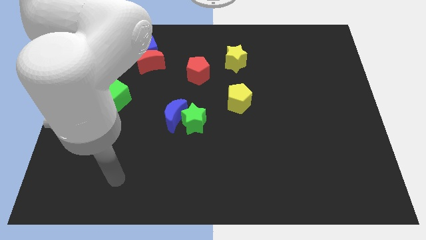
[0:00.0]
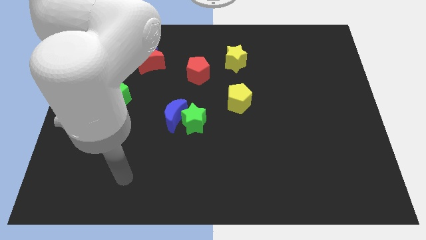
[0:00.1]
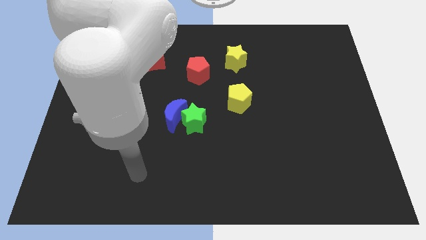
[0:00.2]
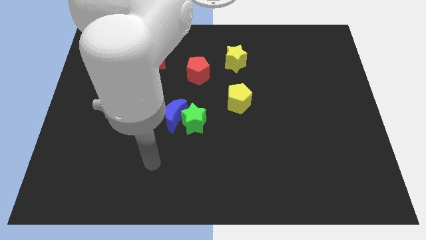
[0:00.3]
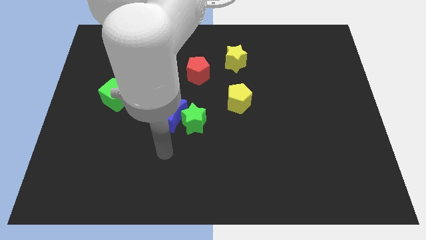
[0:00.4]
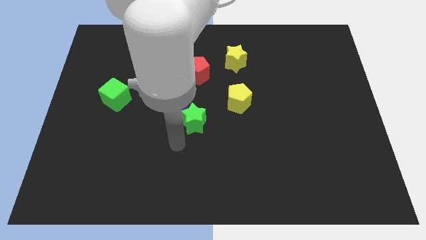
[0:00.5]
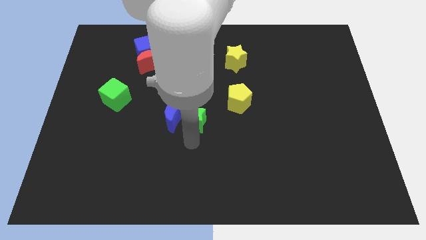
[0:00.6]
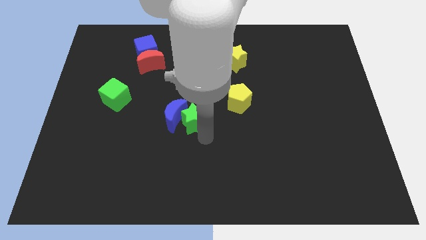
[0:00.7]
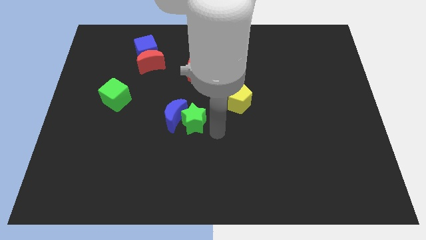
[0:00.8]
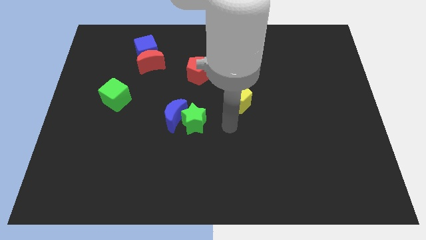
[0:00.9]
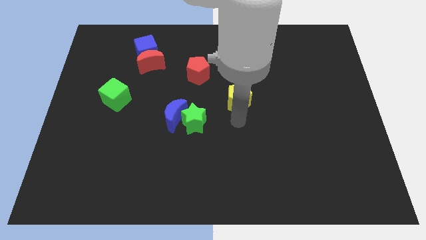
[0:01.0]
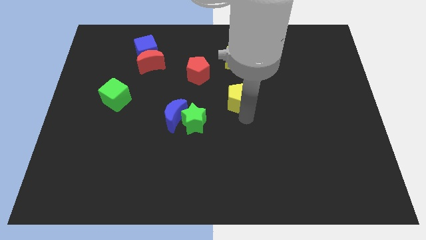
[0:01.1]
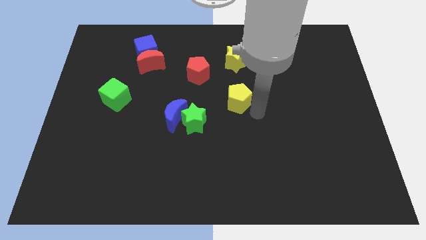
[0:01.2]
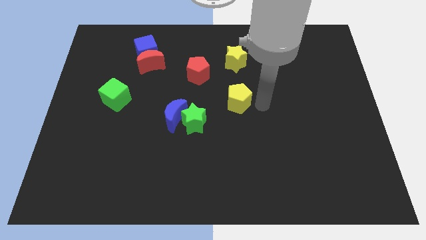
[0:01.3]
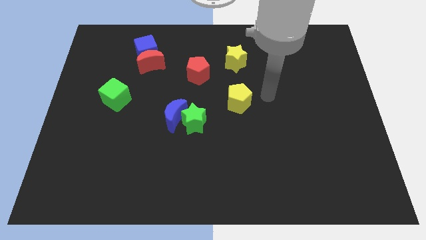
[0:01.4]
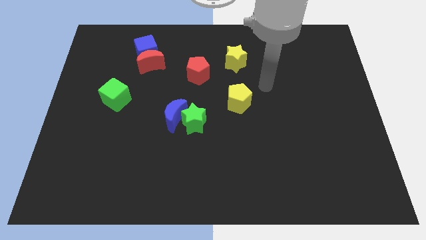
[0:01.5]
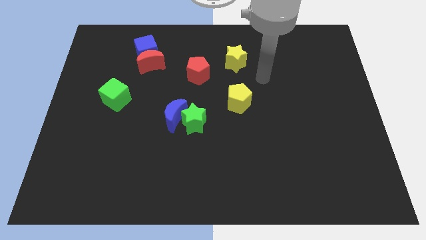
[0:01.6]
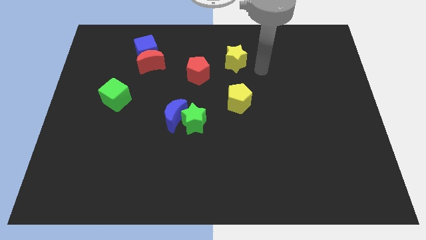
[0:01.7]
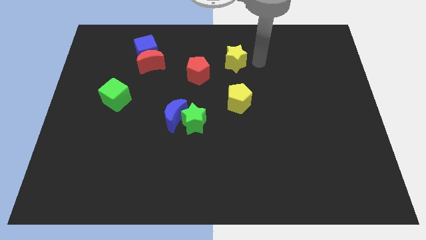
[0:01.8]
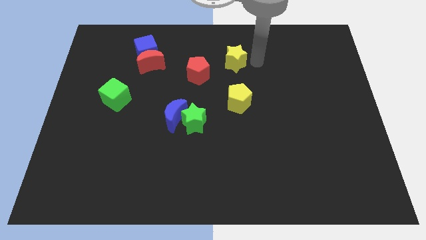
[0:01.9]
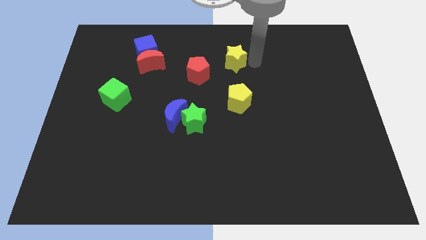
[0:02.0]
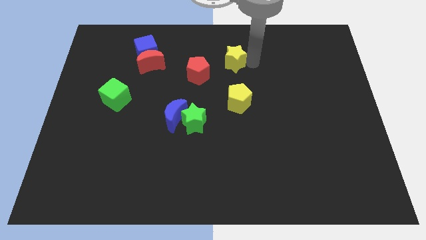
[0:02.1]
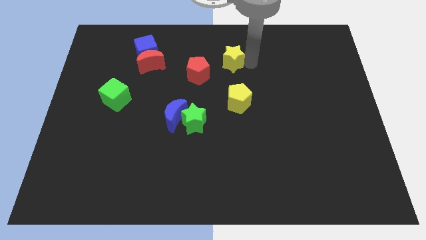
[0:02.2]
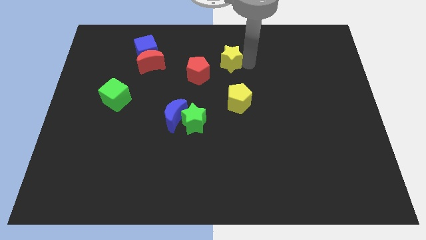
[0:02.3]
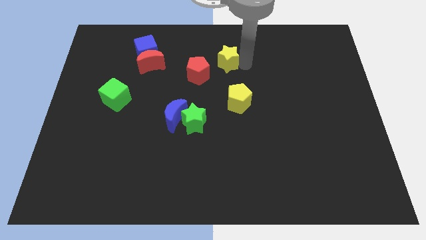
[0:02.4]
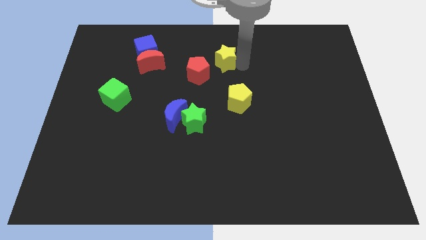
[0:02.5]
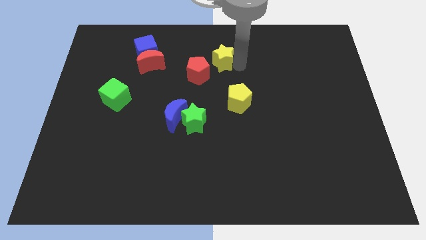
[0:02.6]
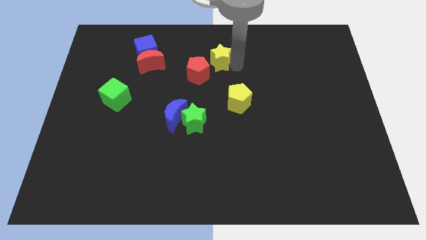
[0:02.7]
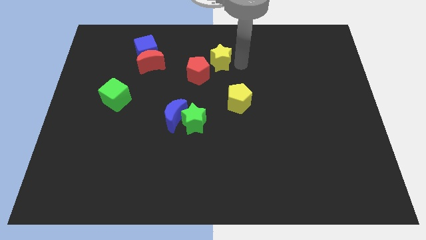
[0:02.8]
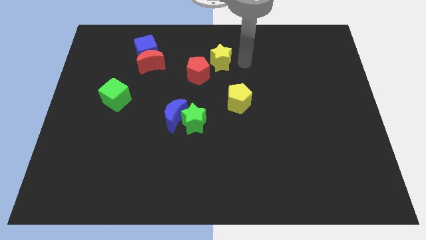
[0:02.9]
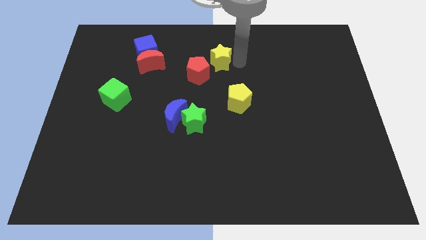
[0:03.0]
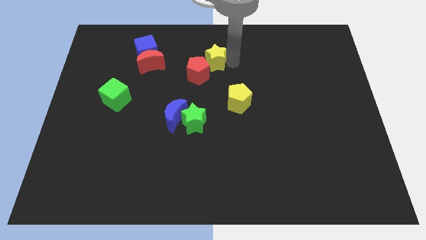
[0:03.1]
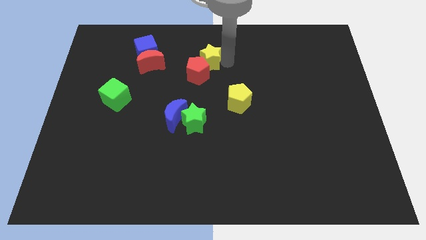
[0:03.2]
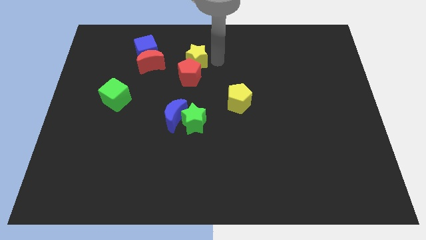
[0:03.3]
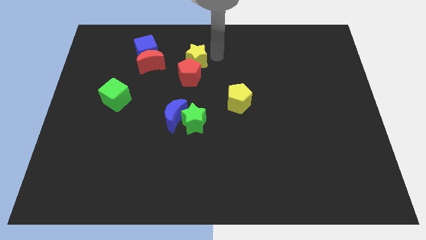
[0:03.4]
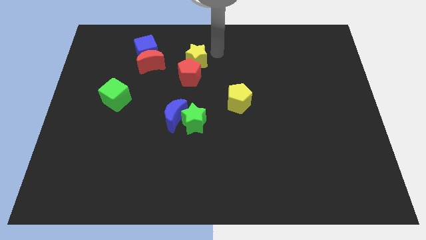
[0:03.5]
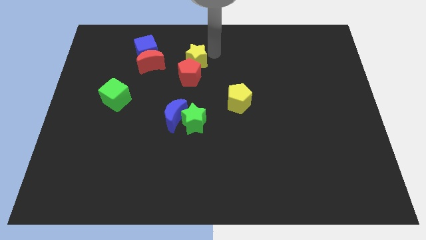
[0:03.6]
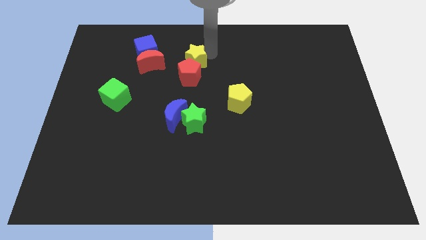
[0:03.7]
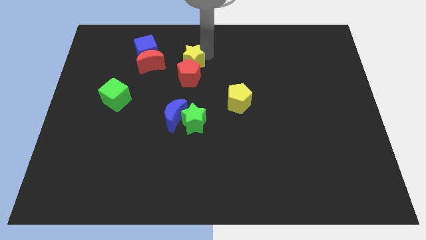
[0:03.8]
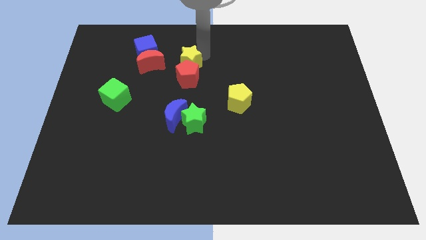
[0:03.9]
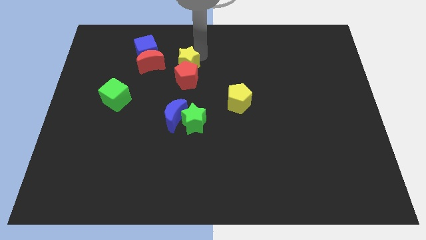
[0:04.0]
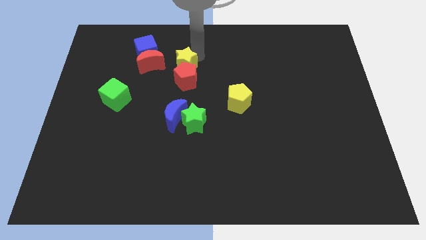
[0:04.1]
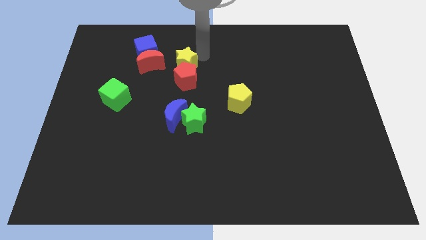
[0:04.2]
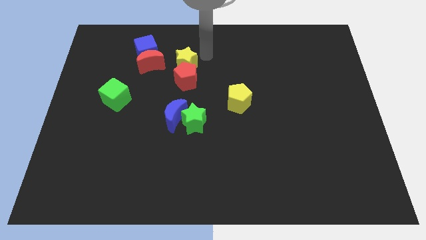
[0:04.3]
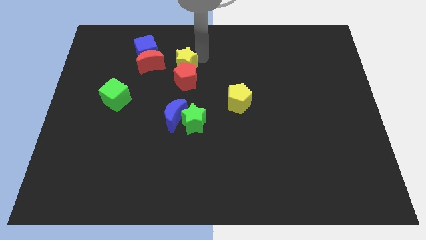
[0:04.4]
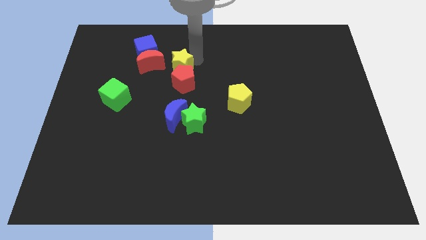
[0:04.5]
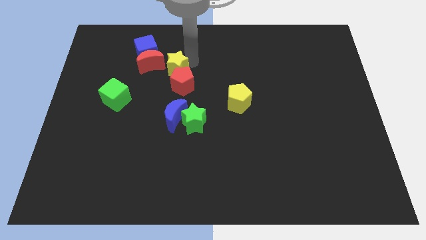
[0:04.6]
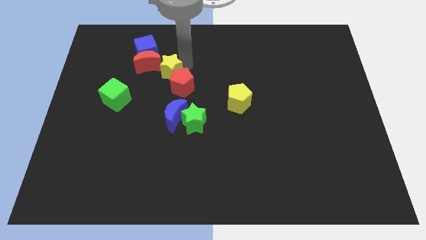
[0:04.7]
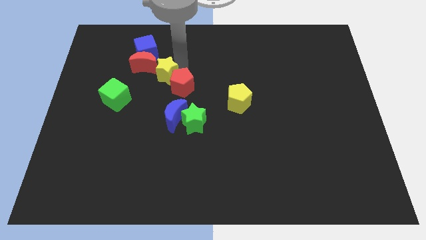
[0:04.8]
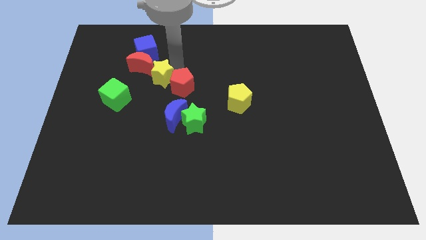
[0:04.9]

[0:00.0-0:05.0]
push the yellow star to the top right of the green cube

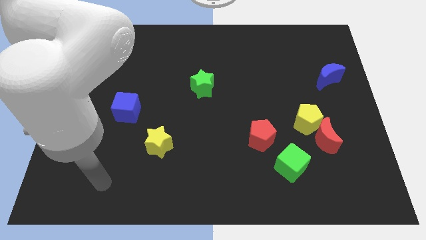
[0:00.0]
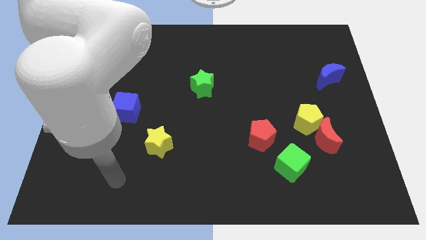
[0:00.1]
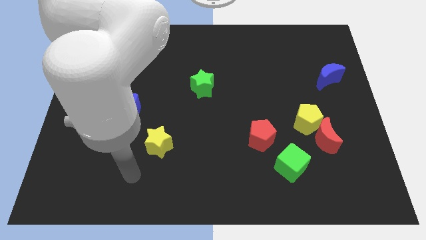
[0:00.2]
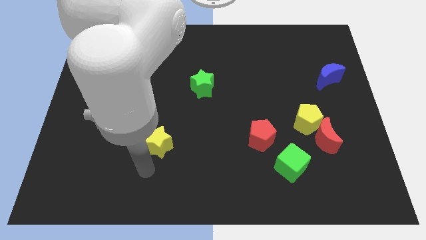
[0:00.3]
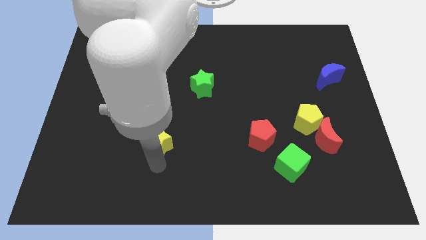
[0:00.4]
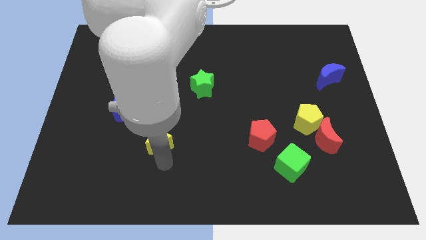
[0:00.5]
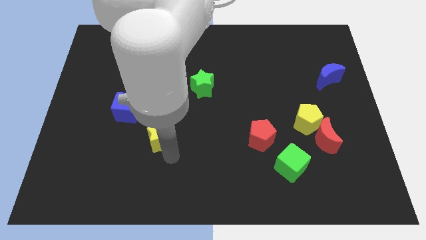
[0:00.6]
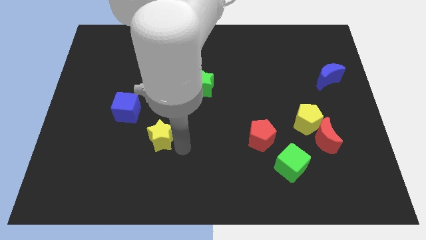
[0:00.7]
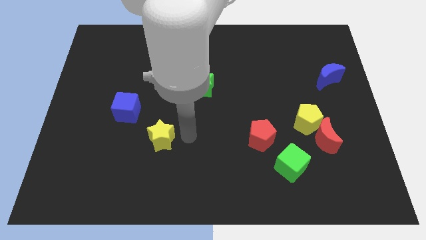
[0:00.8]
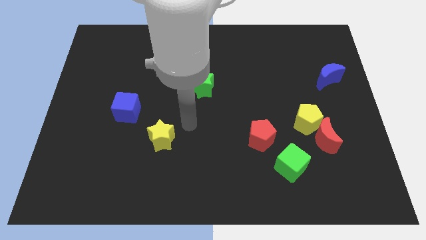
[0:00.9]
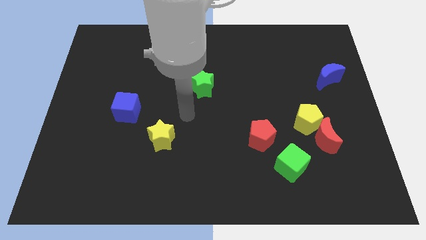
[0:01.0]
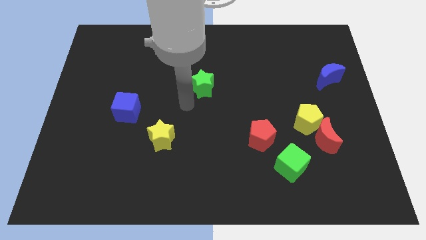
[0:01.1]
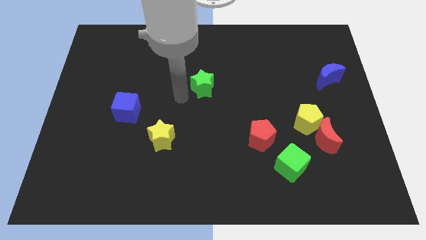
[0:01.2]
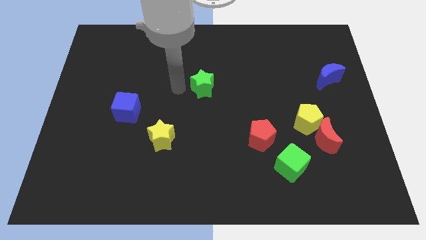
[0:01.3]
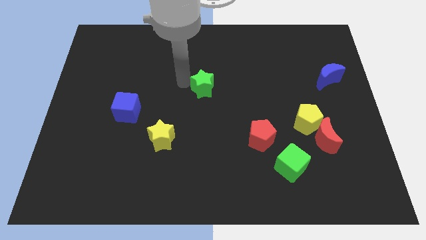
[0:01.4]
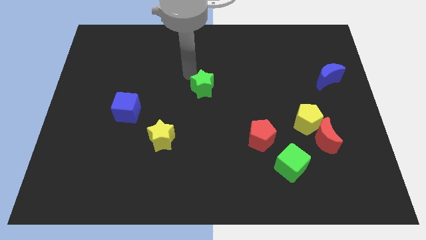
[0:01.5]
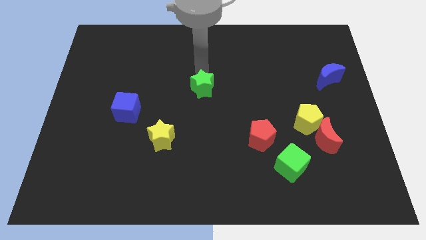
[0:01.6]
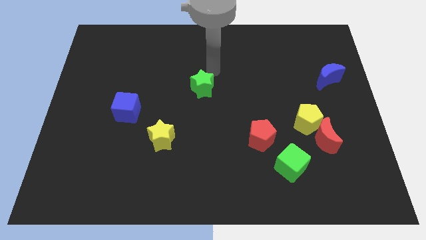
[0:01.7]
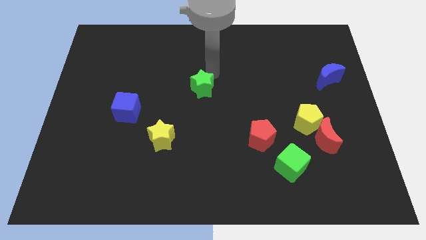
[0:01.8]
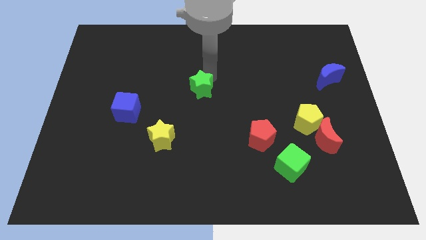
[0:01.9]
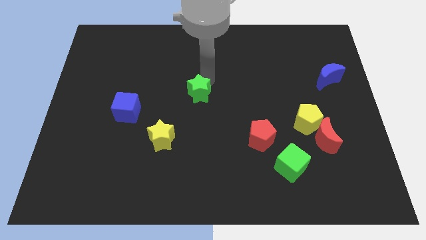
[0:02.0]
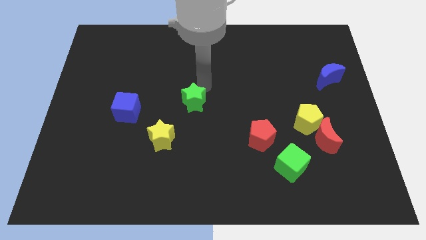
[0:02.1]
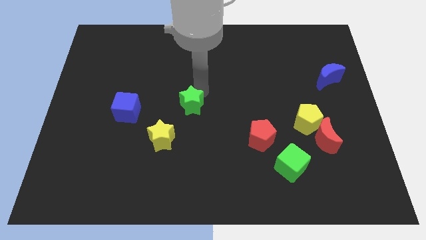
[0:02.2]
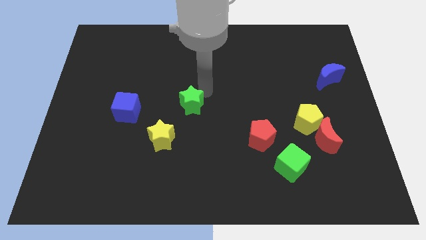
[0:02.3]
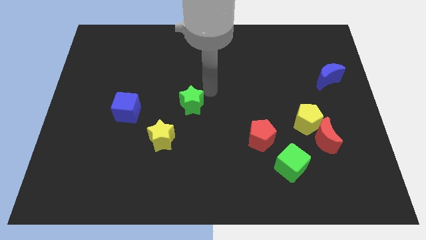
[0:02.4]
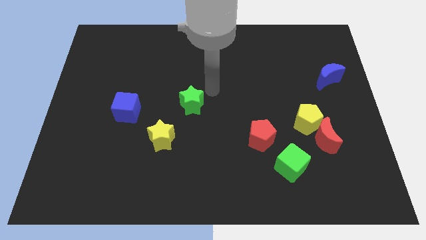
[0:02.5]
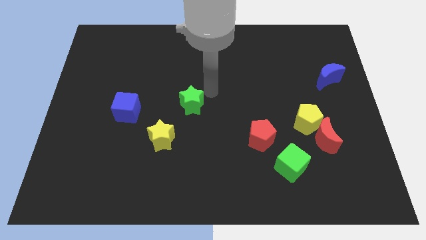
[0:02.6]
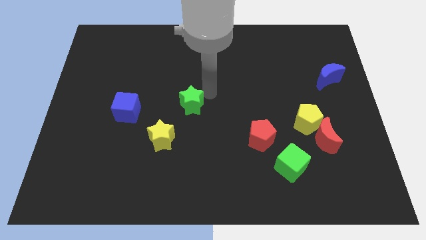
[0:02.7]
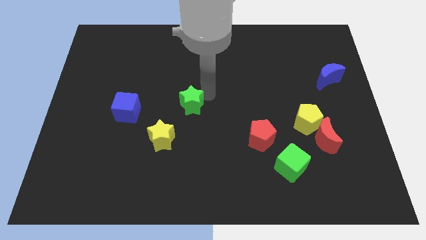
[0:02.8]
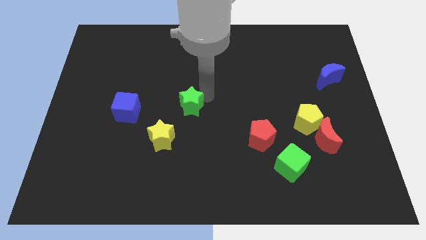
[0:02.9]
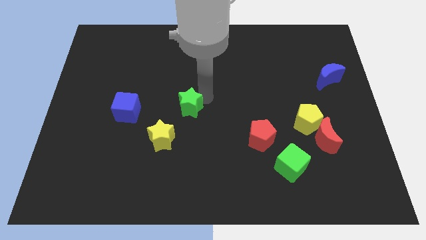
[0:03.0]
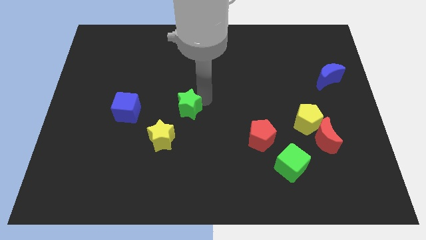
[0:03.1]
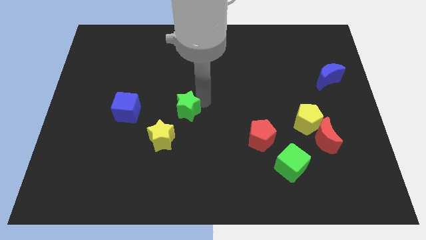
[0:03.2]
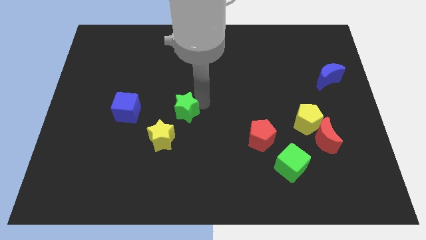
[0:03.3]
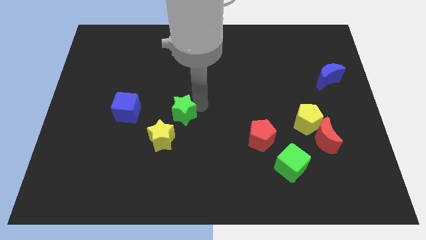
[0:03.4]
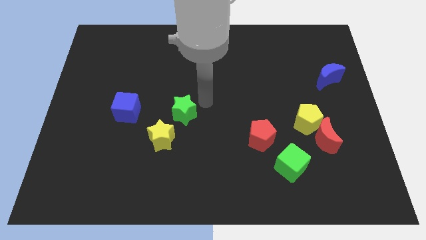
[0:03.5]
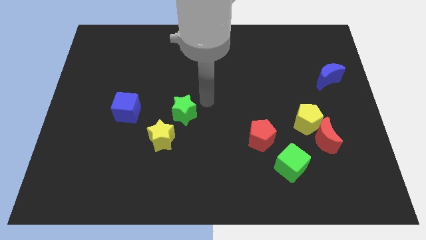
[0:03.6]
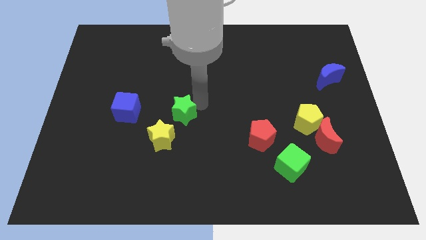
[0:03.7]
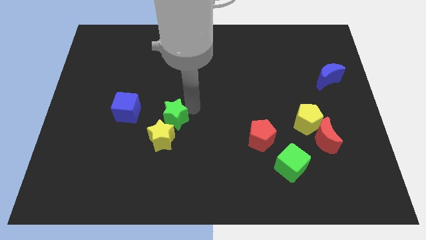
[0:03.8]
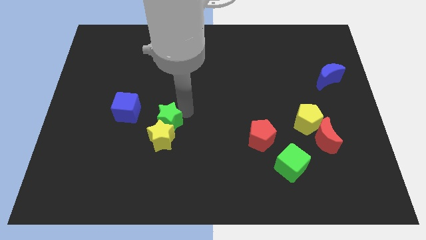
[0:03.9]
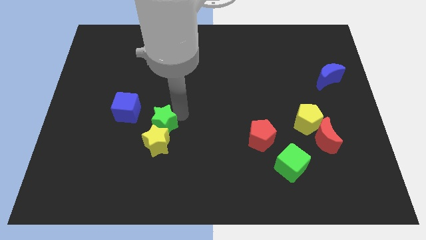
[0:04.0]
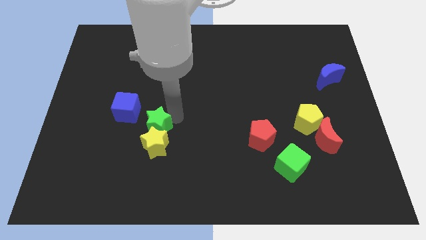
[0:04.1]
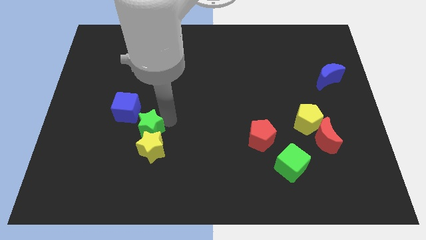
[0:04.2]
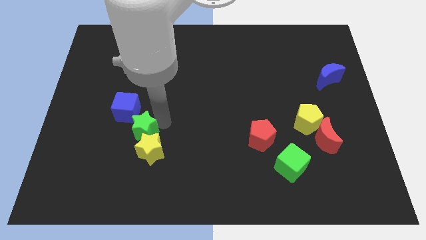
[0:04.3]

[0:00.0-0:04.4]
put the green star to the bottom side of the blue cube
